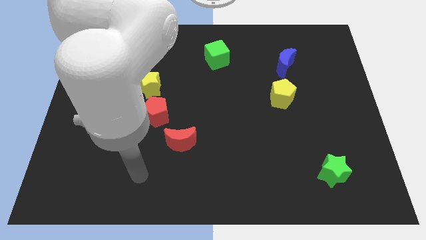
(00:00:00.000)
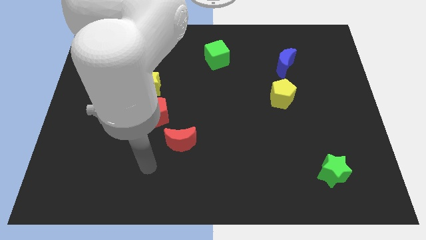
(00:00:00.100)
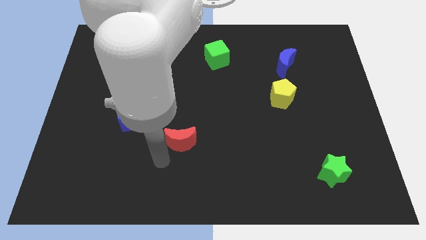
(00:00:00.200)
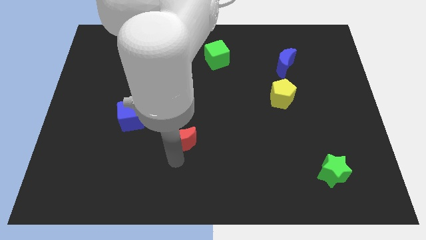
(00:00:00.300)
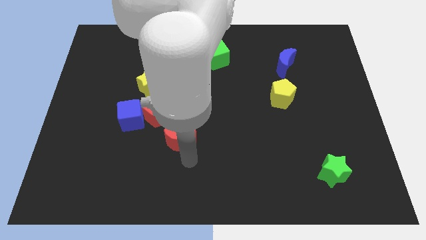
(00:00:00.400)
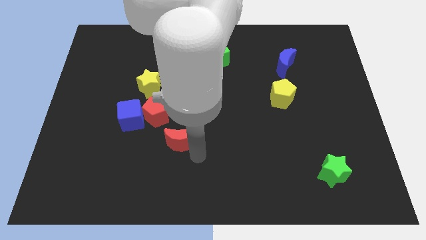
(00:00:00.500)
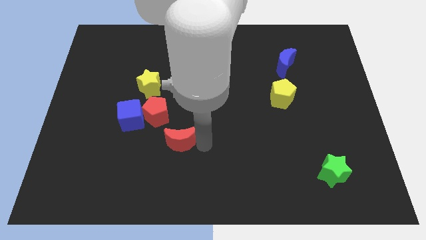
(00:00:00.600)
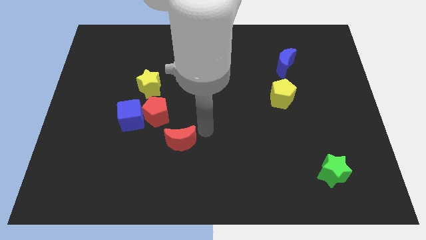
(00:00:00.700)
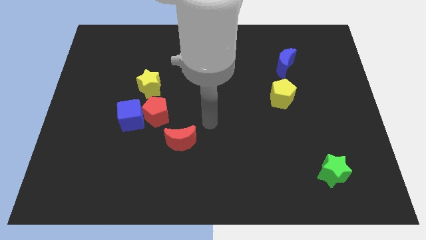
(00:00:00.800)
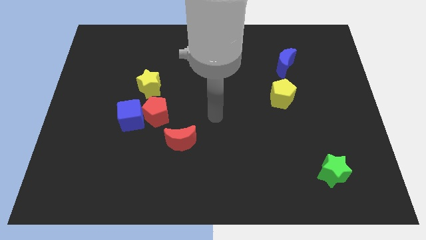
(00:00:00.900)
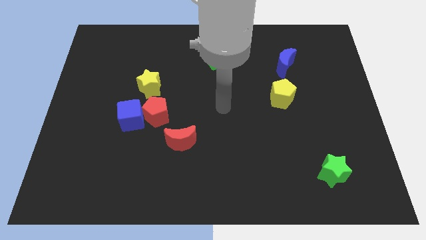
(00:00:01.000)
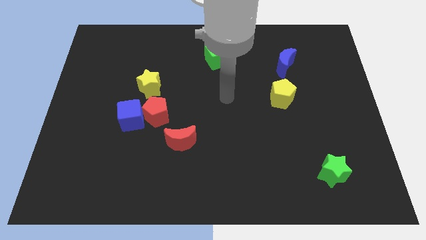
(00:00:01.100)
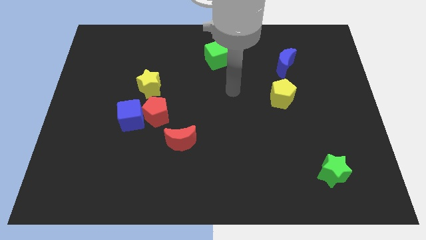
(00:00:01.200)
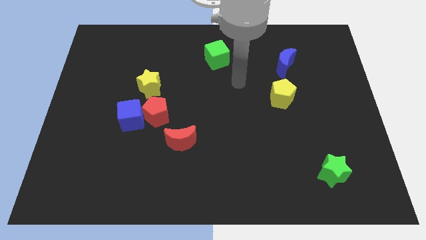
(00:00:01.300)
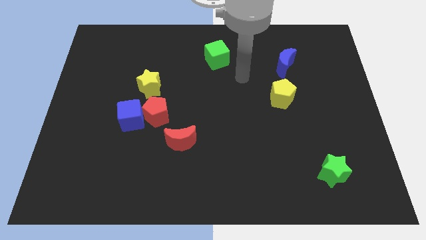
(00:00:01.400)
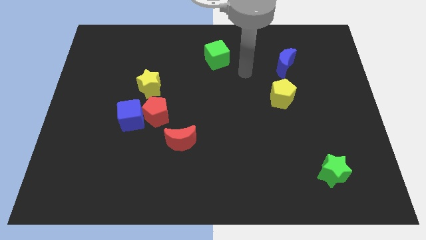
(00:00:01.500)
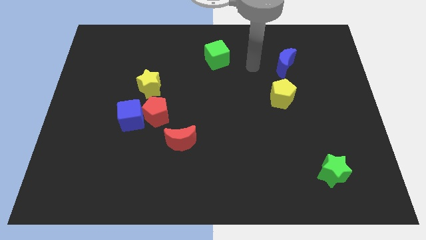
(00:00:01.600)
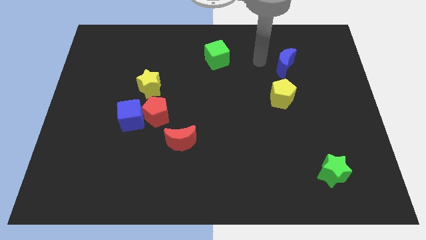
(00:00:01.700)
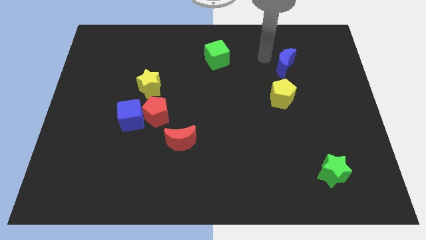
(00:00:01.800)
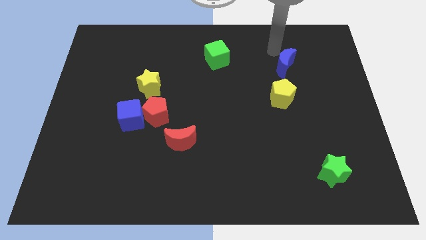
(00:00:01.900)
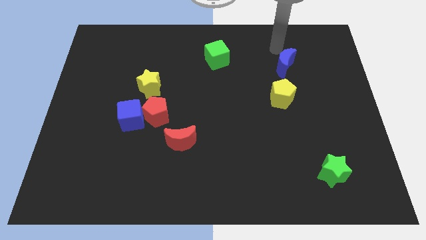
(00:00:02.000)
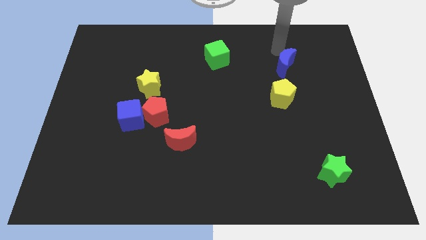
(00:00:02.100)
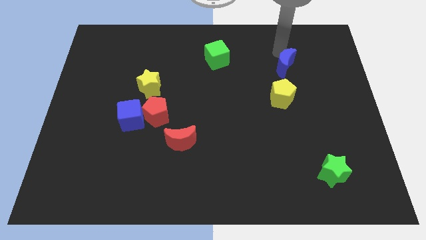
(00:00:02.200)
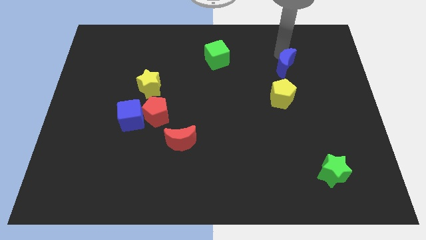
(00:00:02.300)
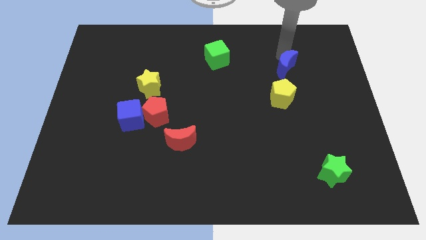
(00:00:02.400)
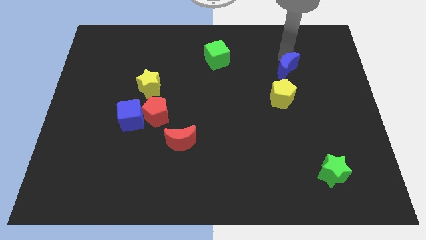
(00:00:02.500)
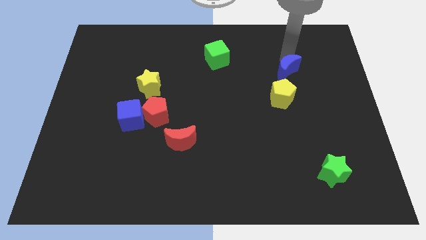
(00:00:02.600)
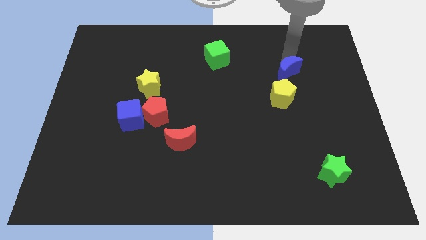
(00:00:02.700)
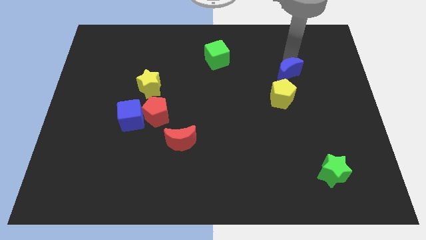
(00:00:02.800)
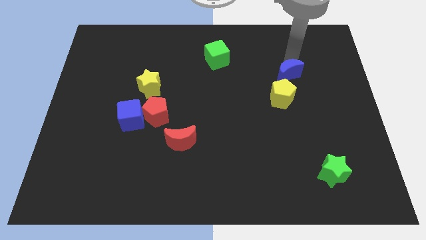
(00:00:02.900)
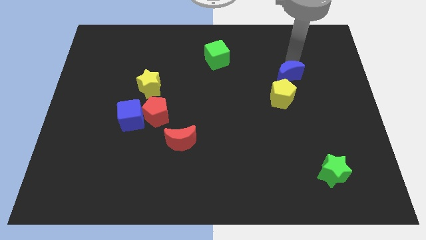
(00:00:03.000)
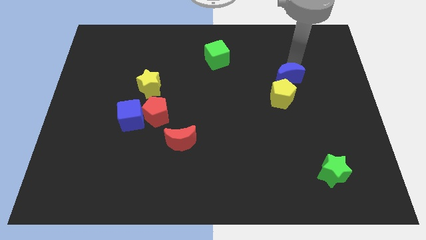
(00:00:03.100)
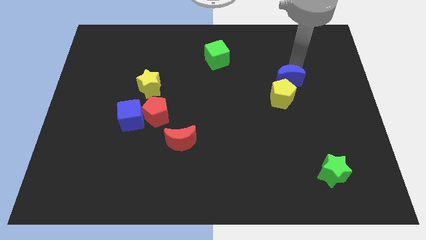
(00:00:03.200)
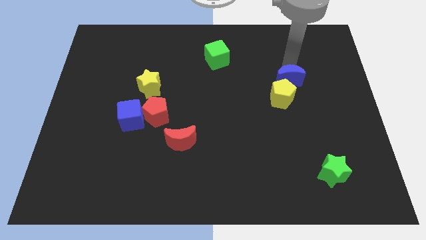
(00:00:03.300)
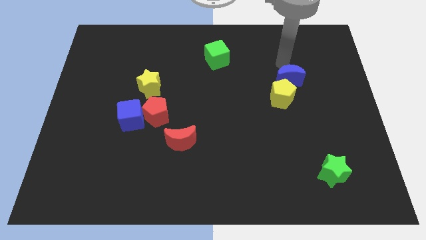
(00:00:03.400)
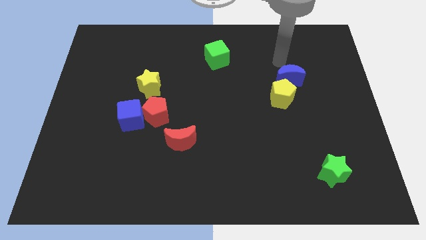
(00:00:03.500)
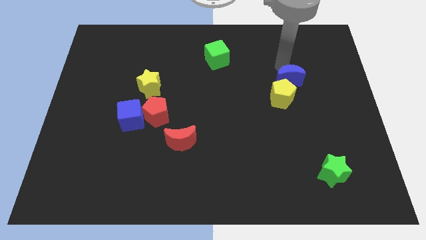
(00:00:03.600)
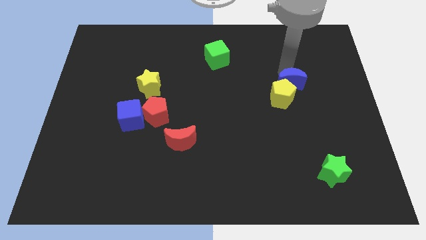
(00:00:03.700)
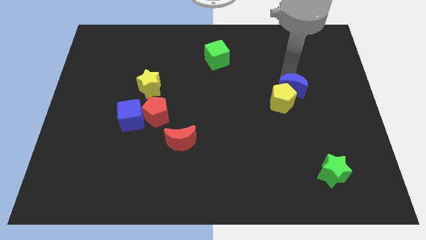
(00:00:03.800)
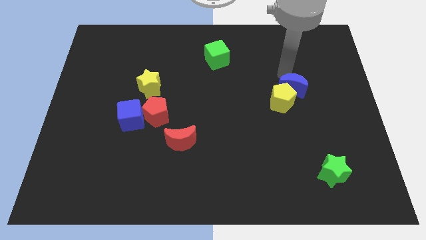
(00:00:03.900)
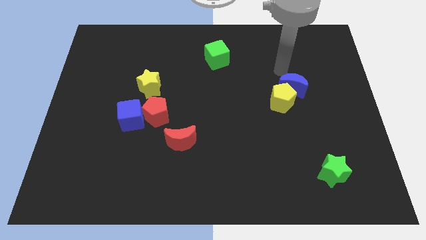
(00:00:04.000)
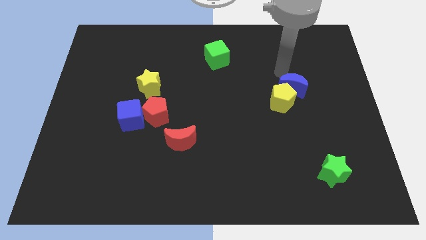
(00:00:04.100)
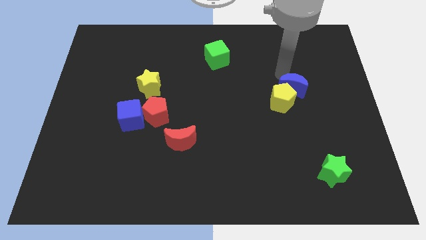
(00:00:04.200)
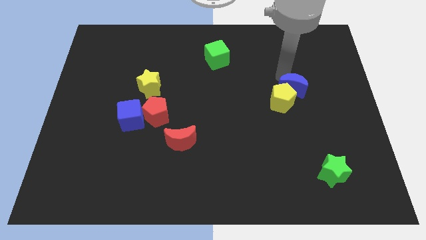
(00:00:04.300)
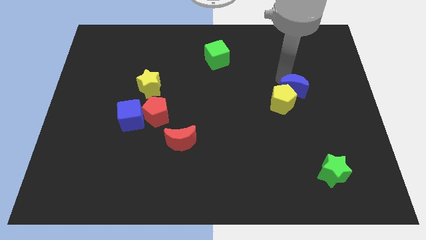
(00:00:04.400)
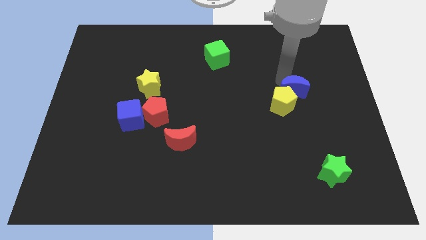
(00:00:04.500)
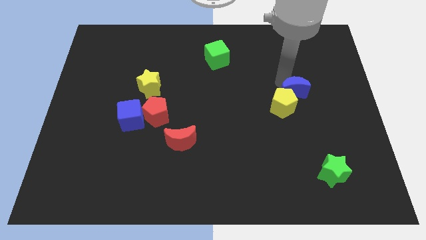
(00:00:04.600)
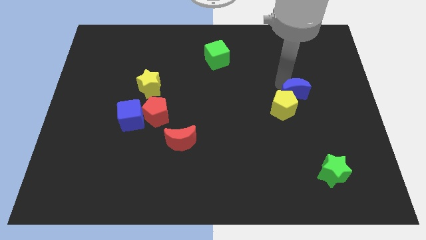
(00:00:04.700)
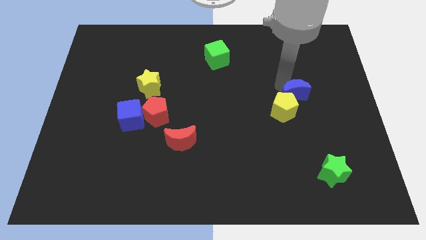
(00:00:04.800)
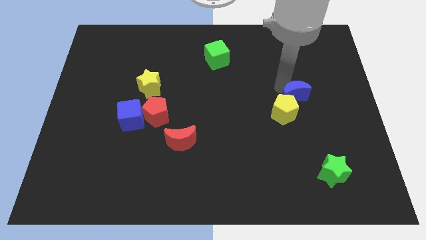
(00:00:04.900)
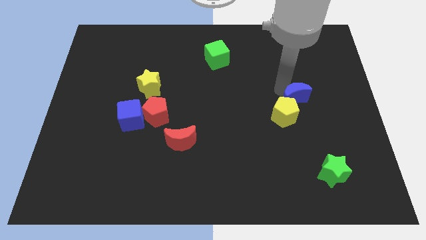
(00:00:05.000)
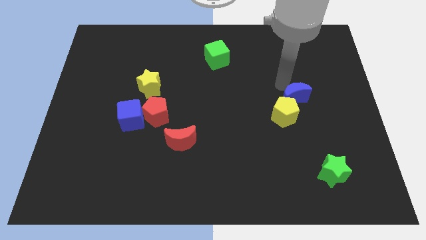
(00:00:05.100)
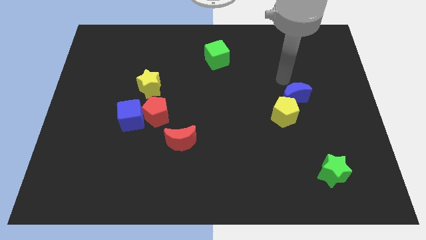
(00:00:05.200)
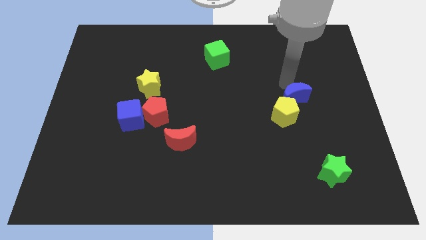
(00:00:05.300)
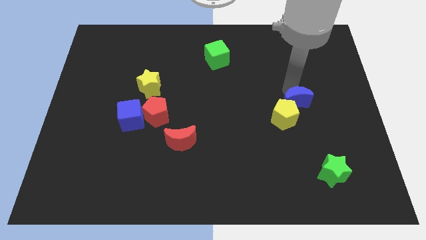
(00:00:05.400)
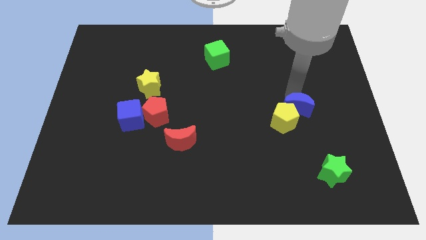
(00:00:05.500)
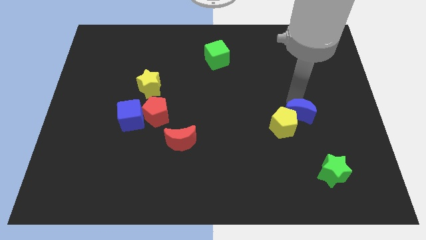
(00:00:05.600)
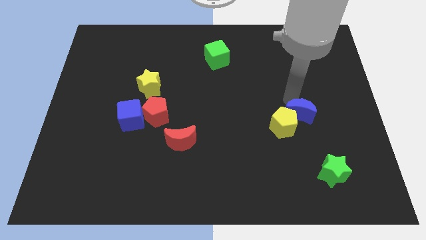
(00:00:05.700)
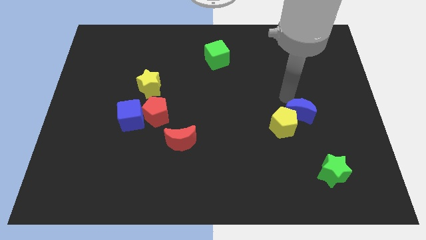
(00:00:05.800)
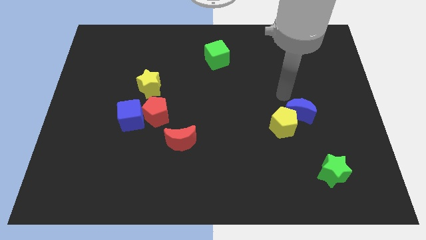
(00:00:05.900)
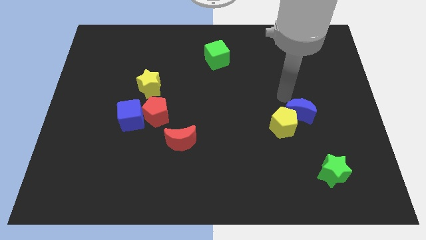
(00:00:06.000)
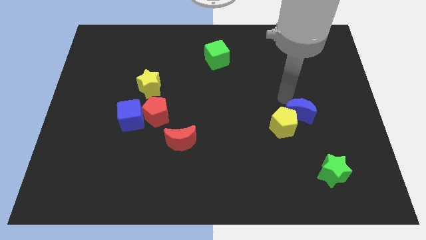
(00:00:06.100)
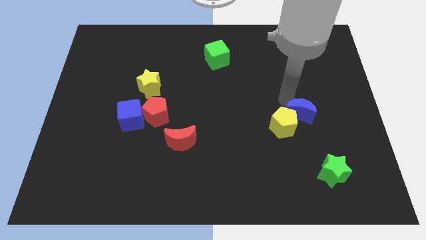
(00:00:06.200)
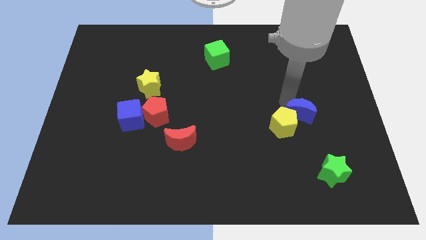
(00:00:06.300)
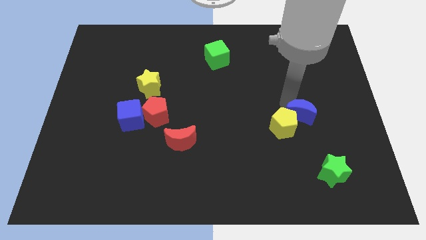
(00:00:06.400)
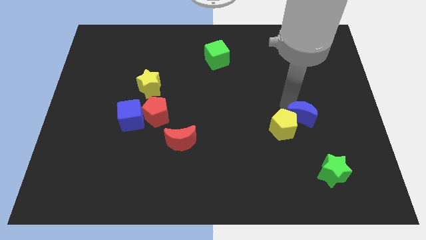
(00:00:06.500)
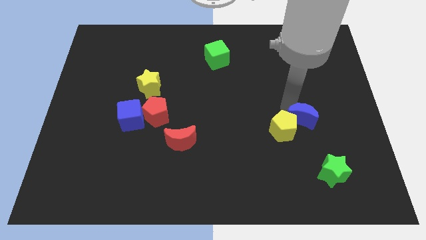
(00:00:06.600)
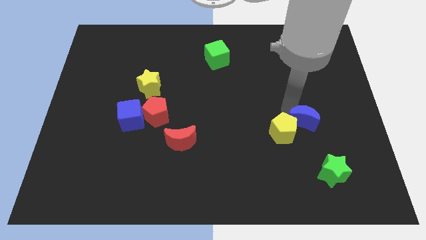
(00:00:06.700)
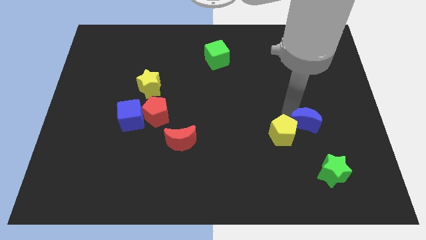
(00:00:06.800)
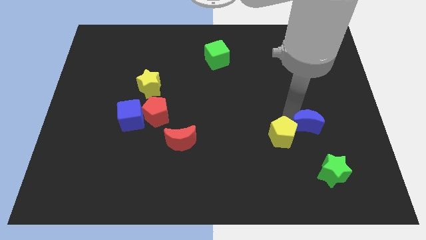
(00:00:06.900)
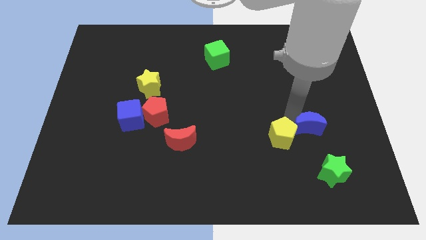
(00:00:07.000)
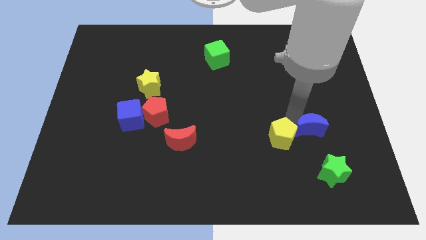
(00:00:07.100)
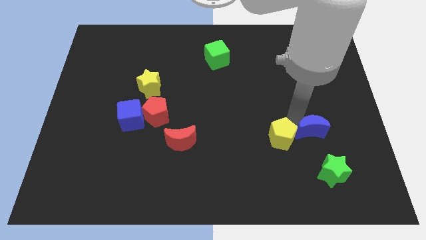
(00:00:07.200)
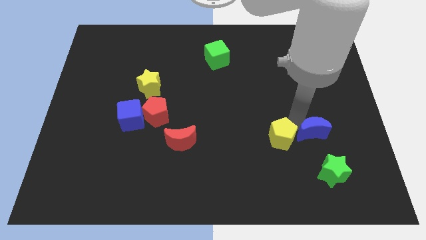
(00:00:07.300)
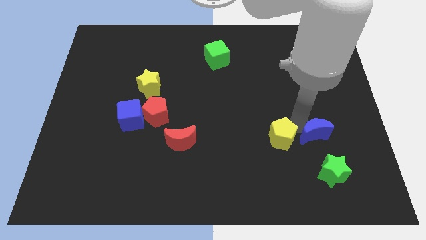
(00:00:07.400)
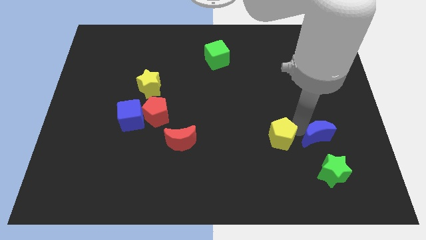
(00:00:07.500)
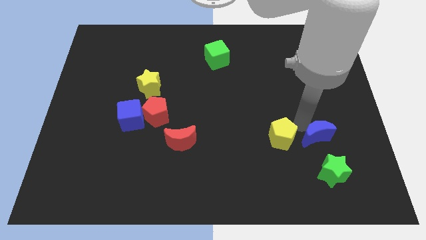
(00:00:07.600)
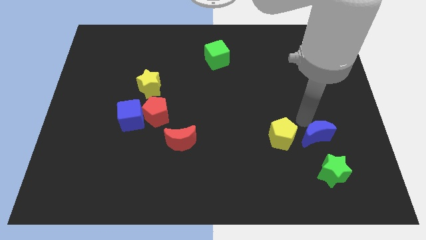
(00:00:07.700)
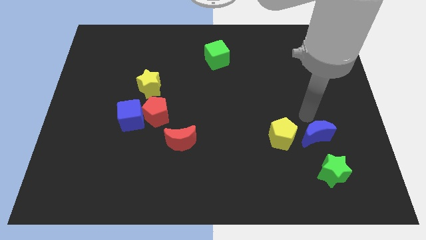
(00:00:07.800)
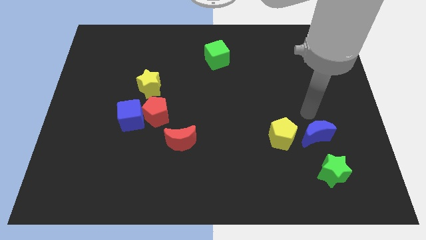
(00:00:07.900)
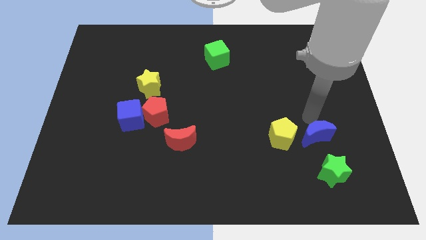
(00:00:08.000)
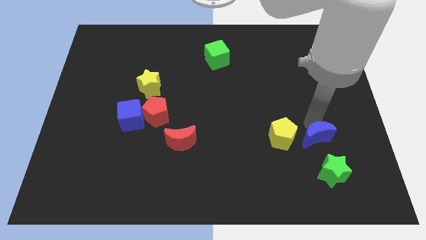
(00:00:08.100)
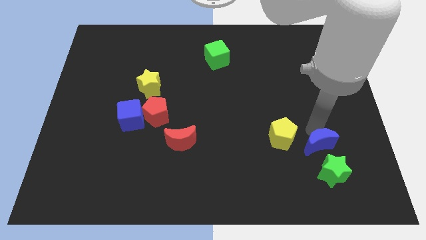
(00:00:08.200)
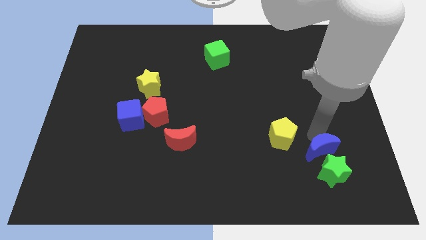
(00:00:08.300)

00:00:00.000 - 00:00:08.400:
move the blue moon close to the green star
